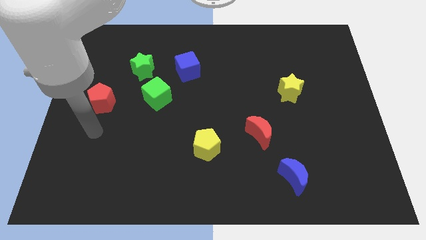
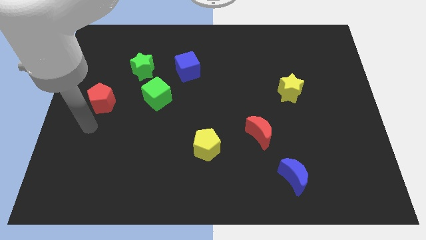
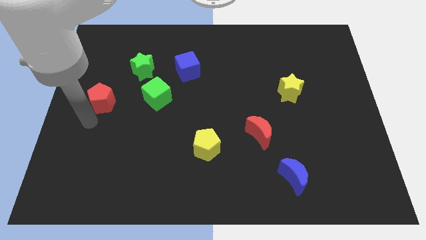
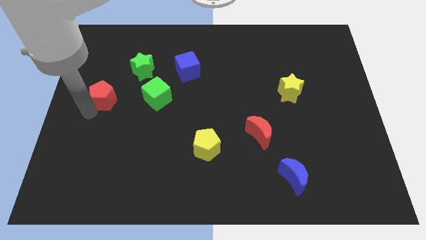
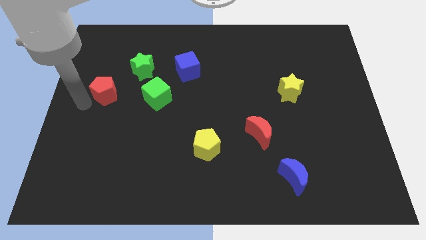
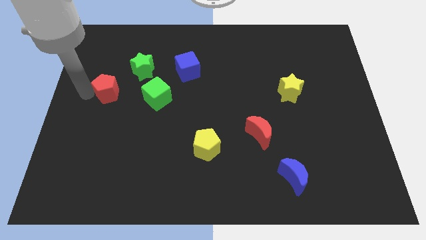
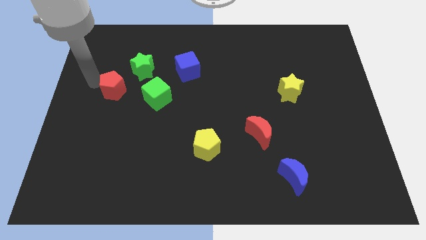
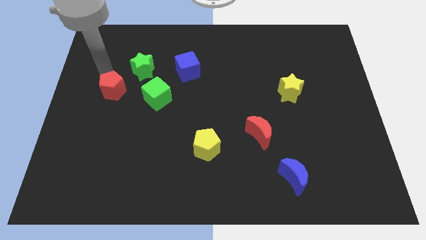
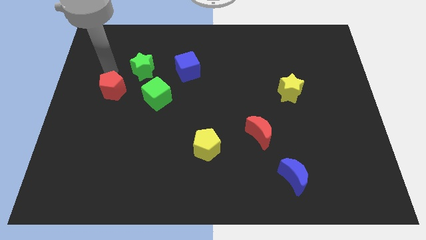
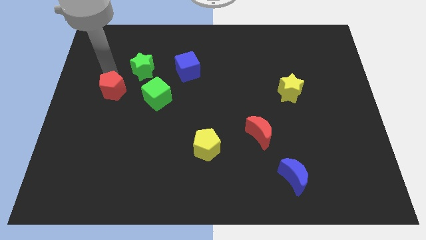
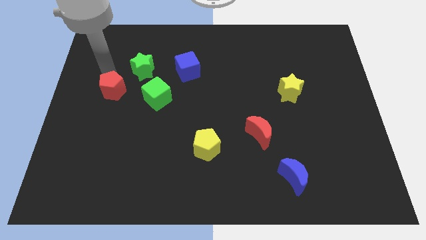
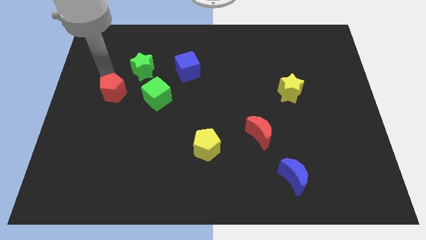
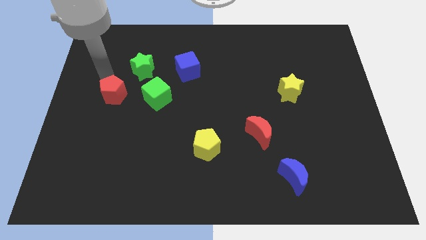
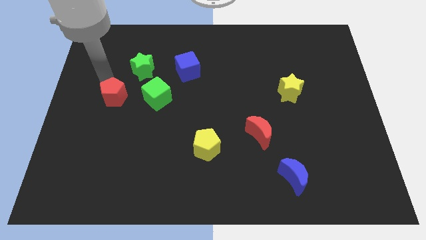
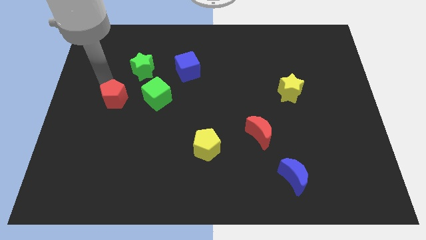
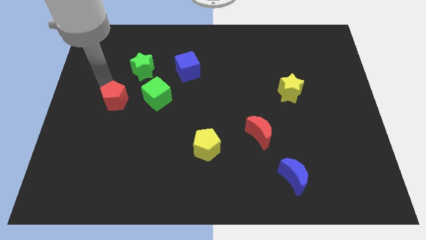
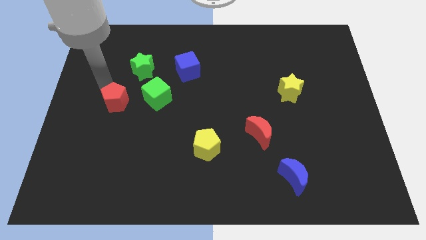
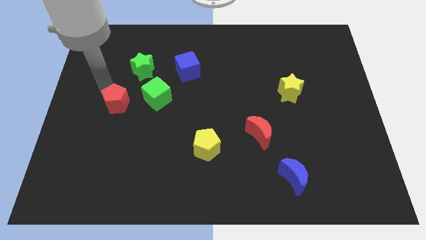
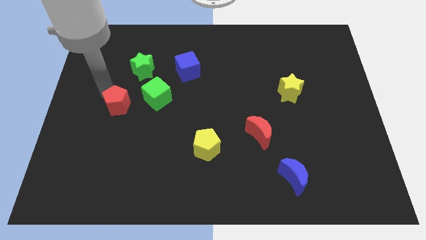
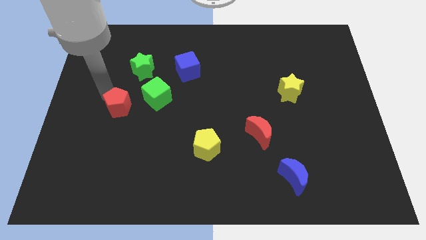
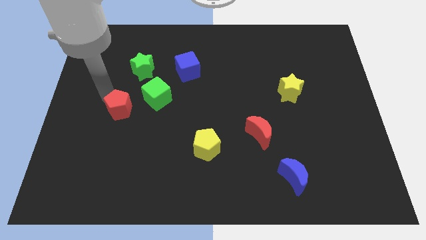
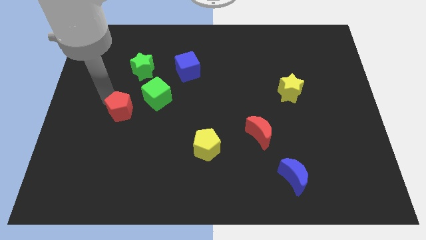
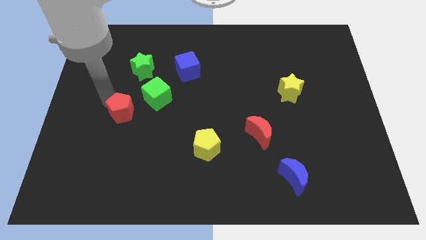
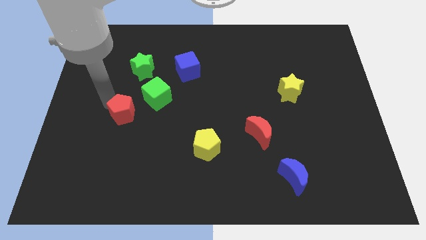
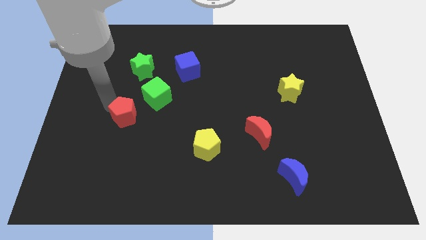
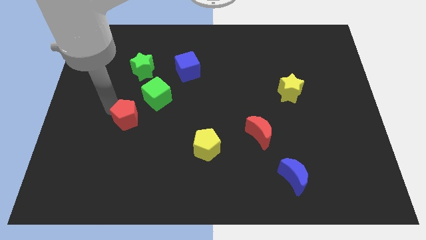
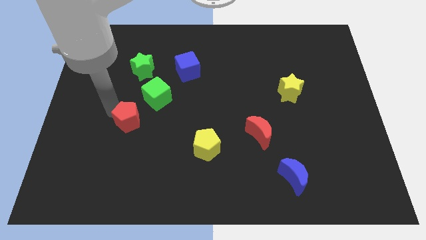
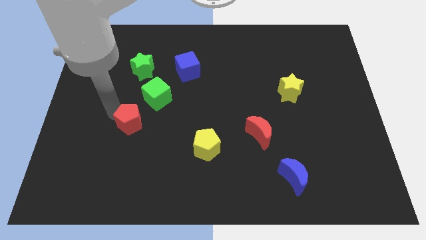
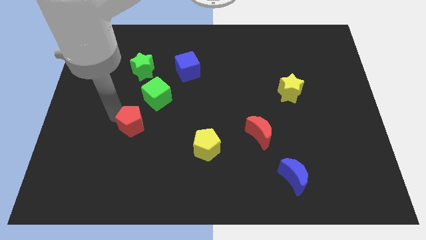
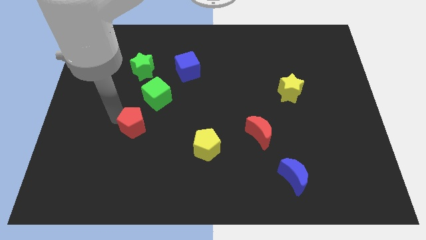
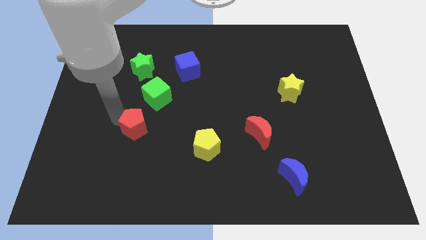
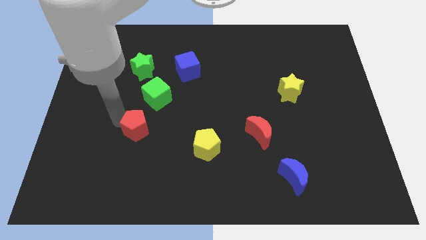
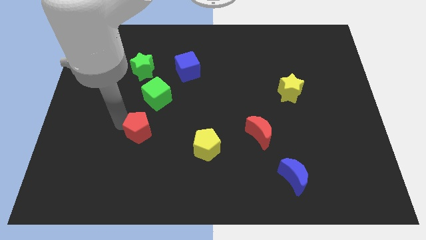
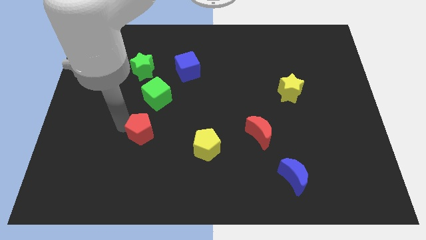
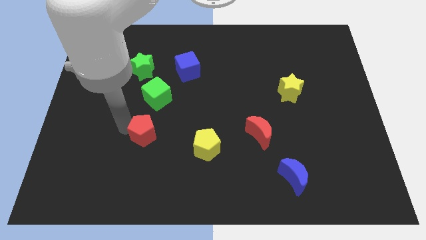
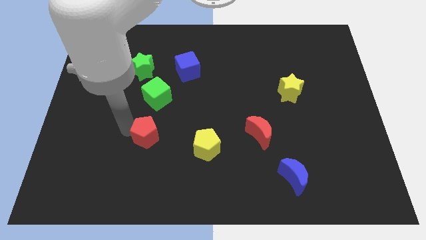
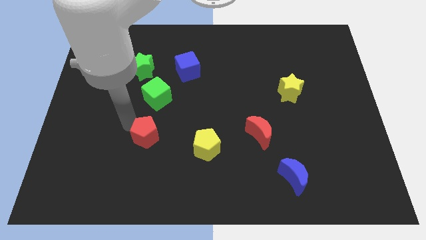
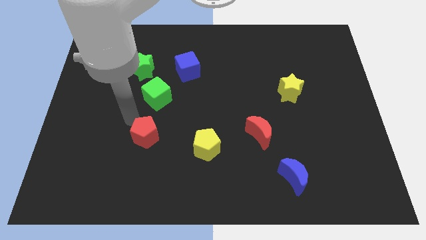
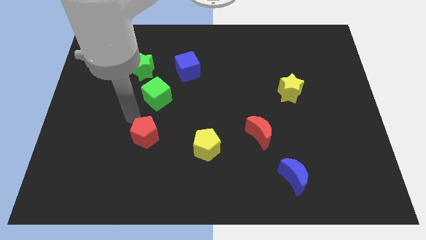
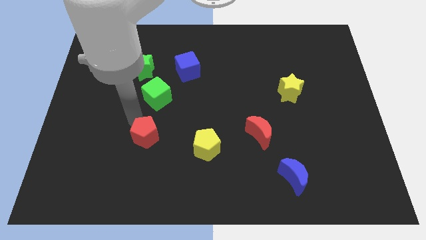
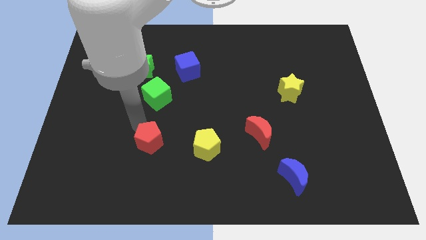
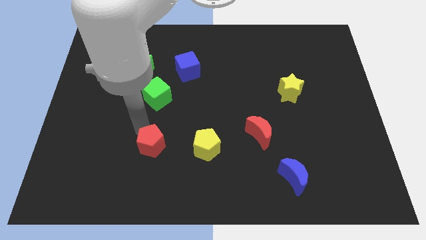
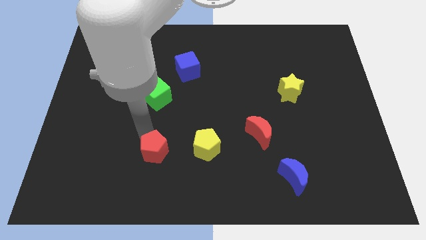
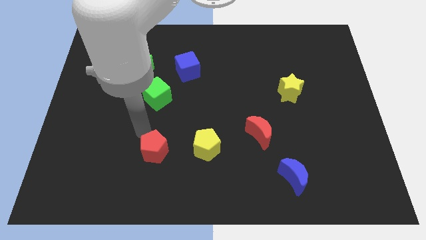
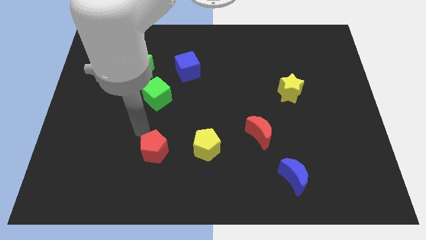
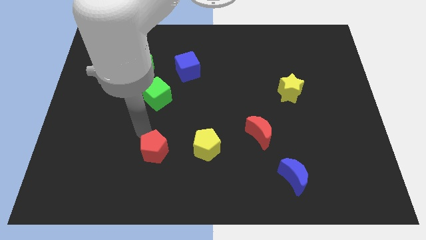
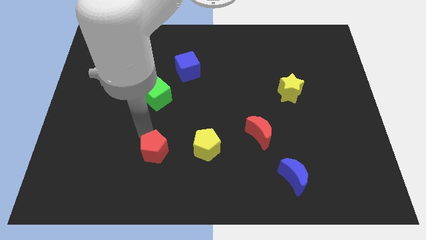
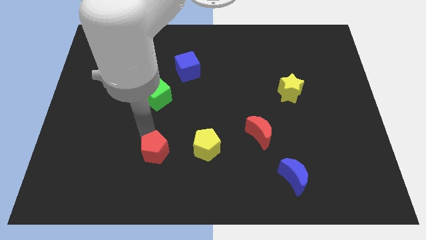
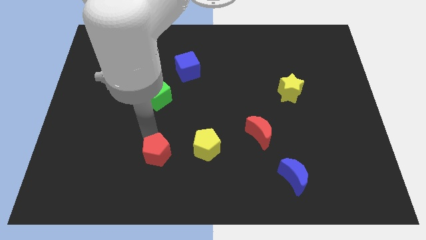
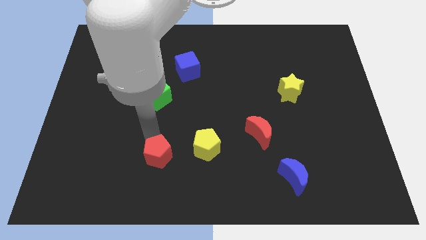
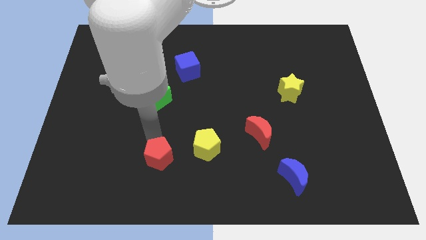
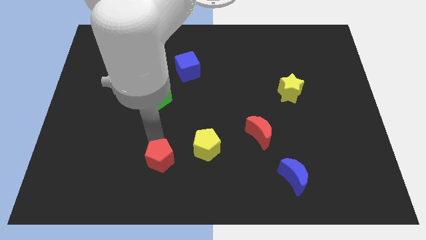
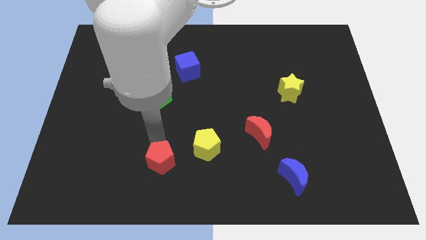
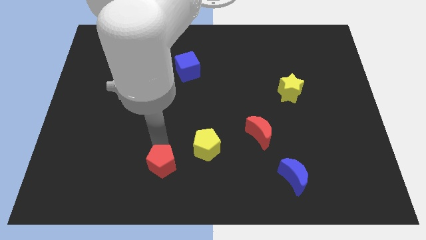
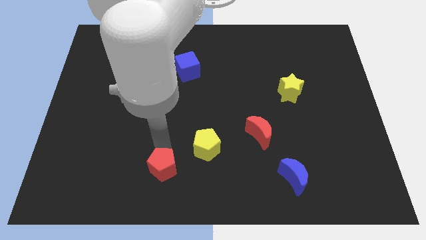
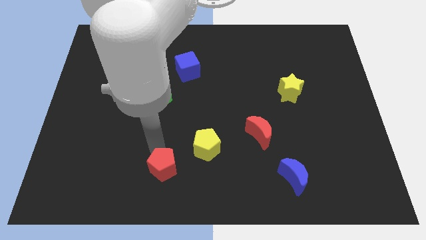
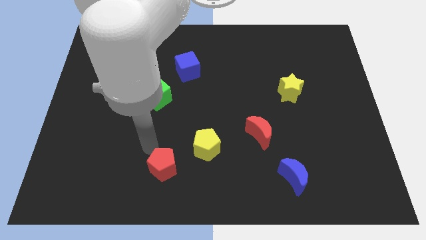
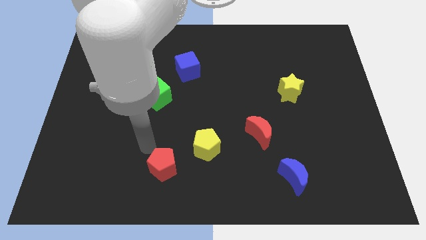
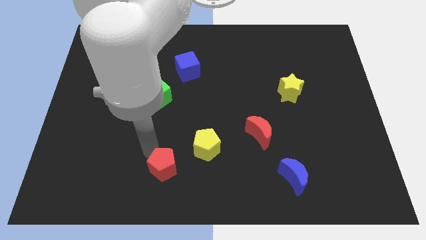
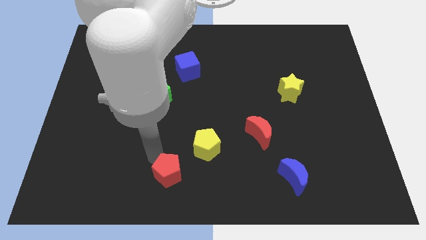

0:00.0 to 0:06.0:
push the red pentagon to the bottom

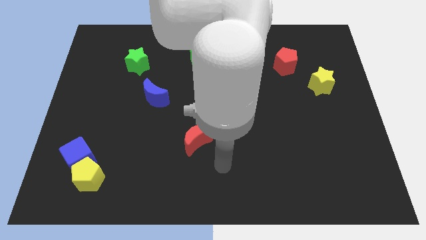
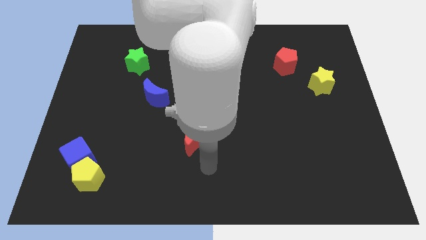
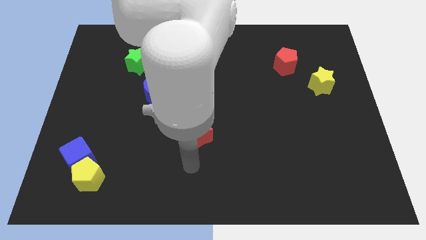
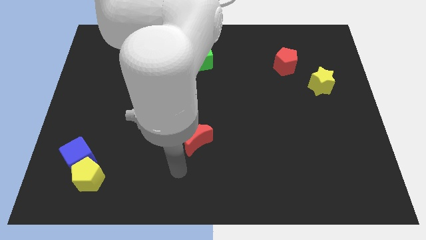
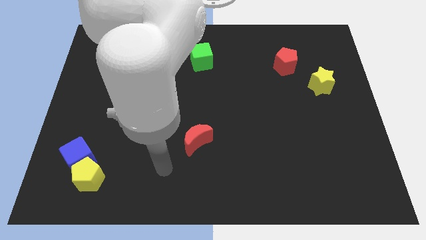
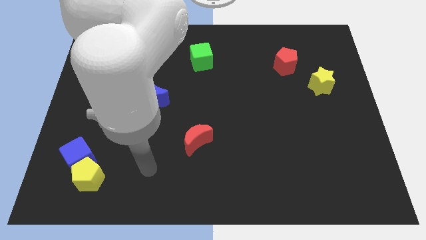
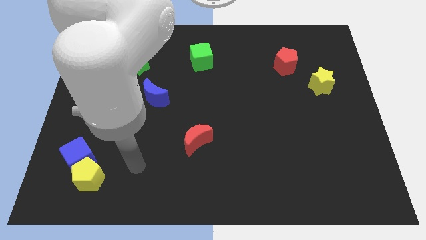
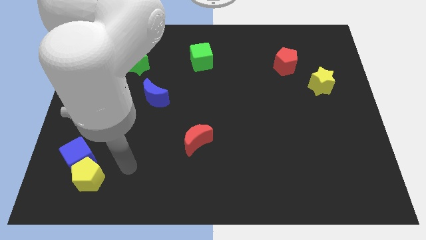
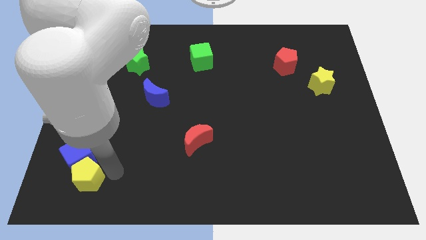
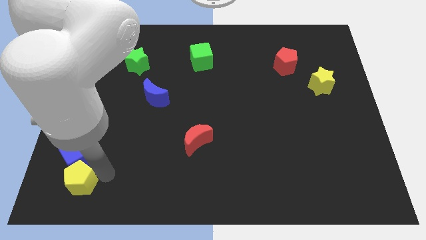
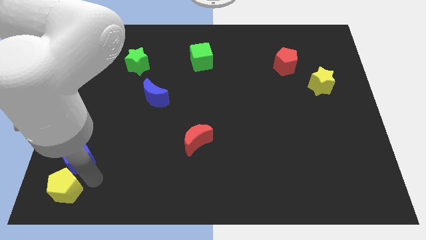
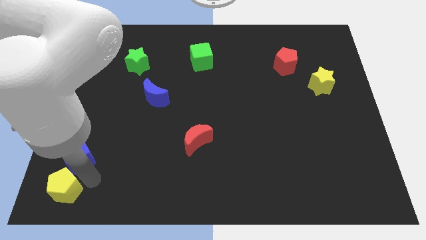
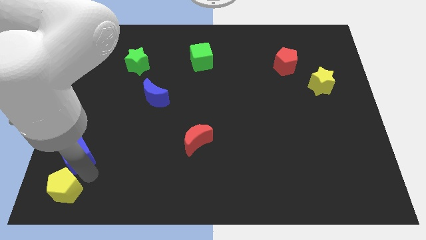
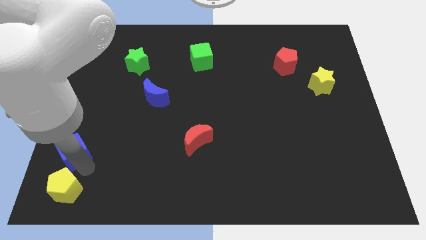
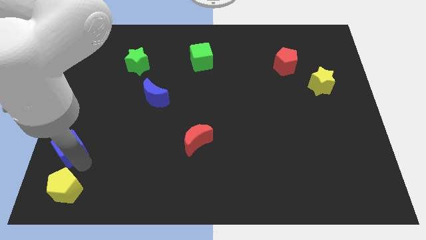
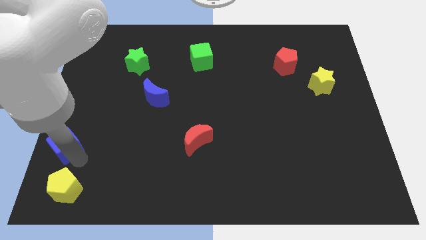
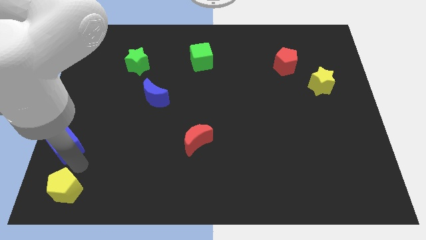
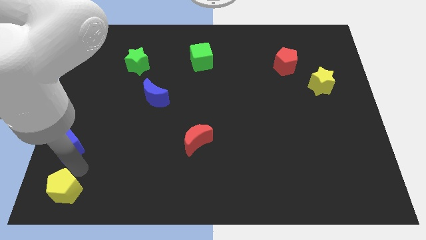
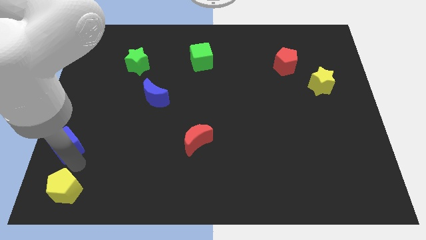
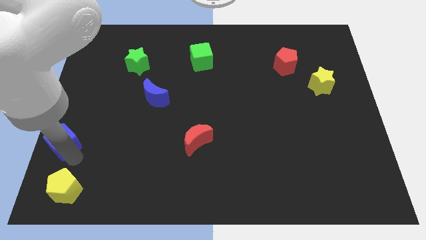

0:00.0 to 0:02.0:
put the blue cube to the center left
